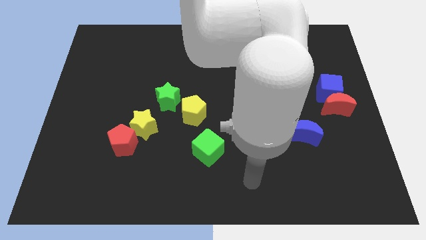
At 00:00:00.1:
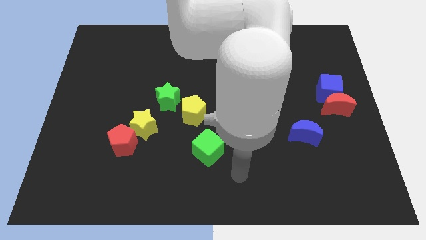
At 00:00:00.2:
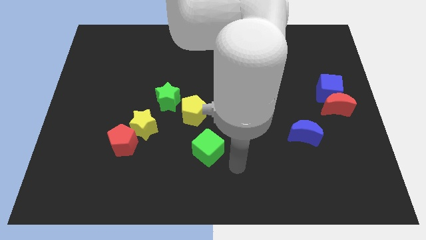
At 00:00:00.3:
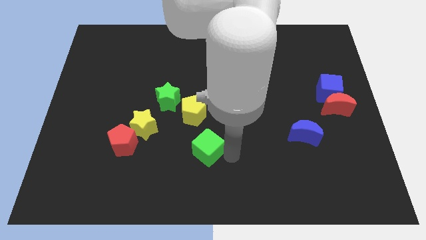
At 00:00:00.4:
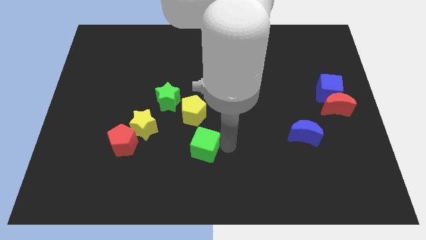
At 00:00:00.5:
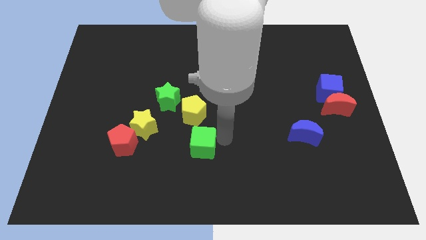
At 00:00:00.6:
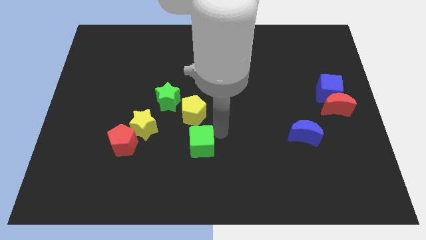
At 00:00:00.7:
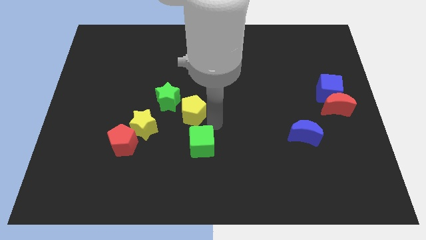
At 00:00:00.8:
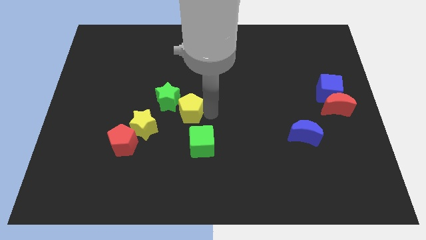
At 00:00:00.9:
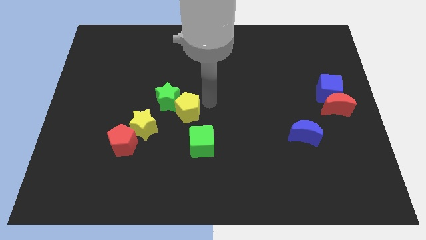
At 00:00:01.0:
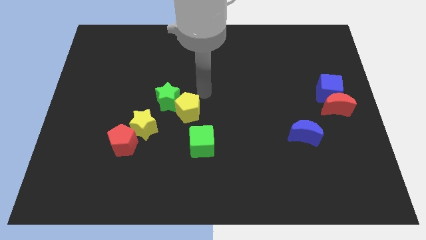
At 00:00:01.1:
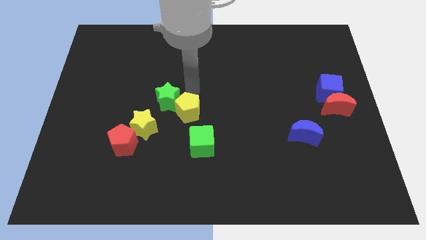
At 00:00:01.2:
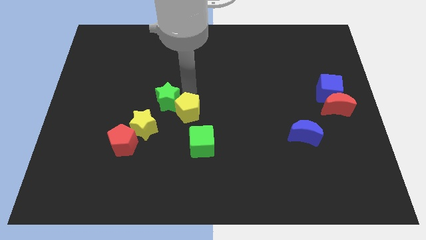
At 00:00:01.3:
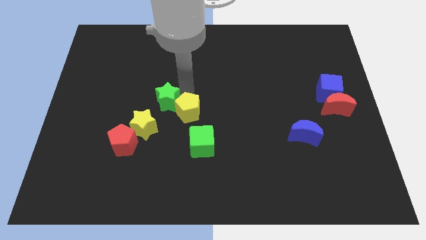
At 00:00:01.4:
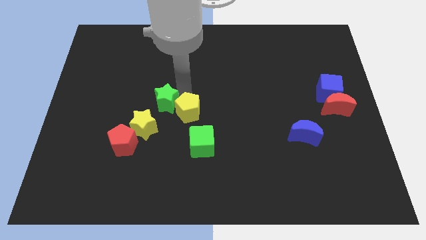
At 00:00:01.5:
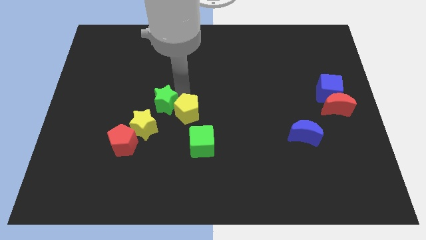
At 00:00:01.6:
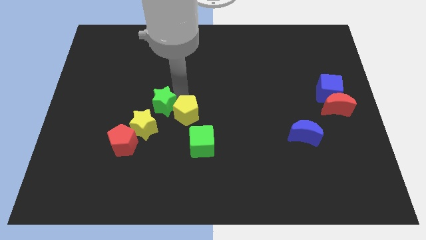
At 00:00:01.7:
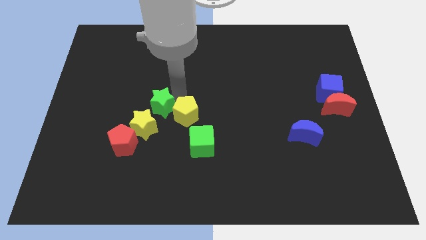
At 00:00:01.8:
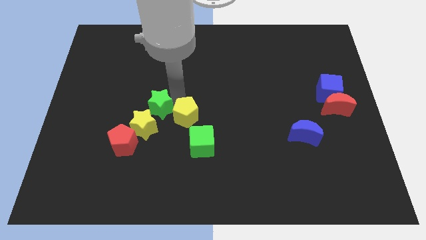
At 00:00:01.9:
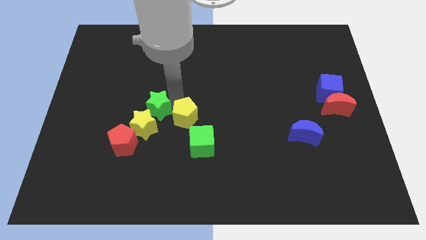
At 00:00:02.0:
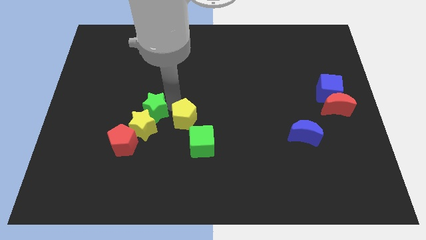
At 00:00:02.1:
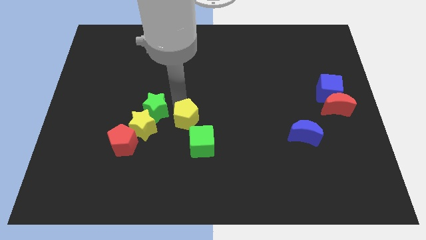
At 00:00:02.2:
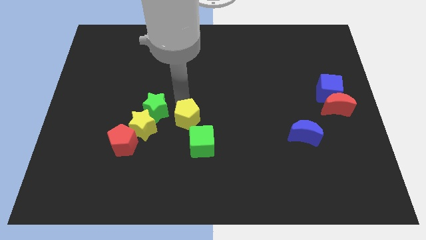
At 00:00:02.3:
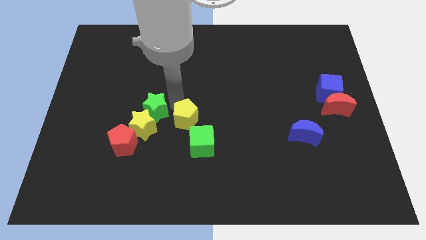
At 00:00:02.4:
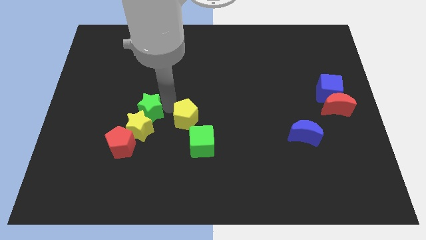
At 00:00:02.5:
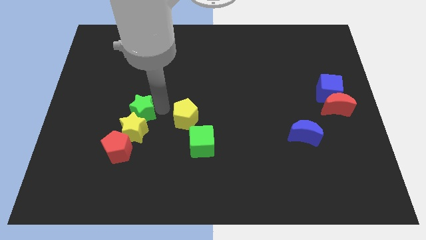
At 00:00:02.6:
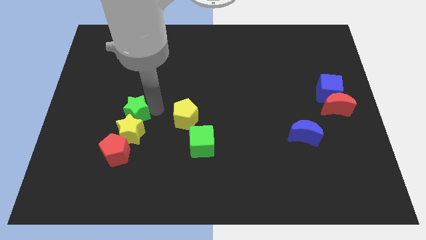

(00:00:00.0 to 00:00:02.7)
push the green star a little diagonally downwards and to the left

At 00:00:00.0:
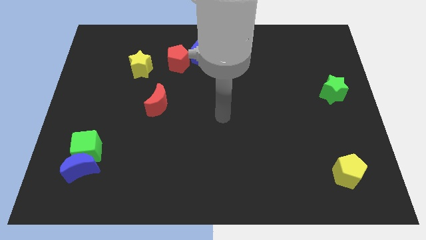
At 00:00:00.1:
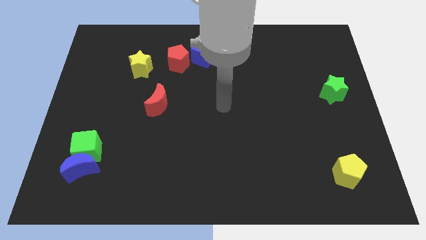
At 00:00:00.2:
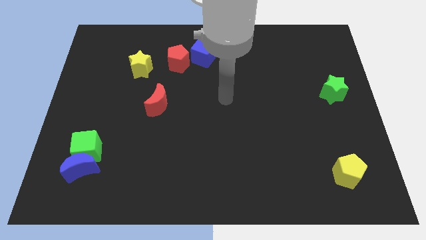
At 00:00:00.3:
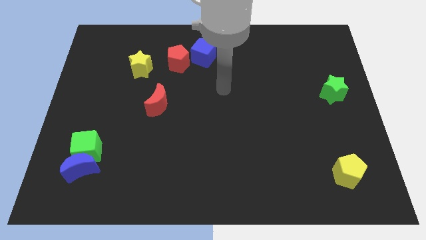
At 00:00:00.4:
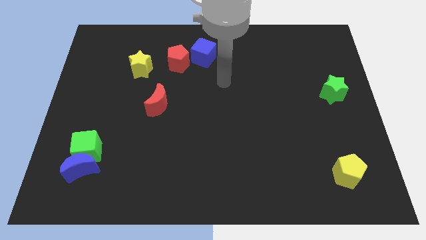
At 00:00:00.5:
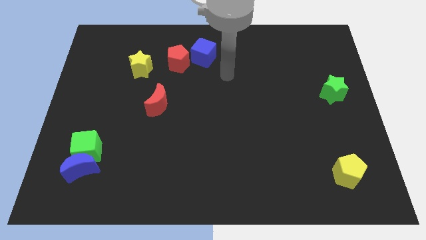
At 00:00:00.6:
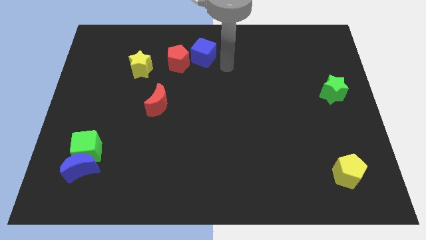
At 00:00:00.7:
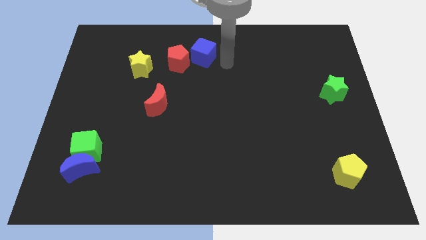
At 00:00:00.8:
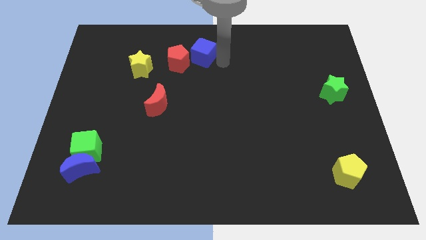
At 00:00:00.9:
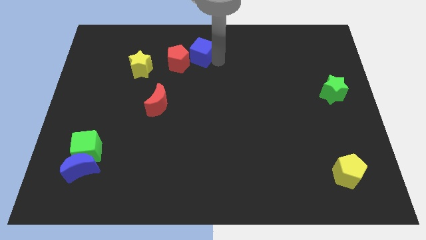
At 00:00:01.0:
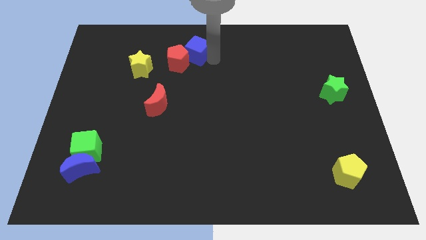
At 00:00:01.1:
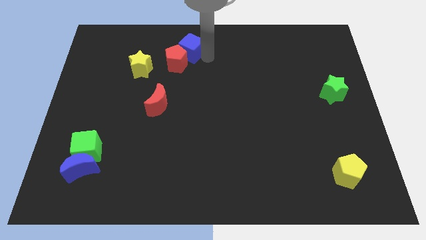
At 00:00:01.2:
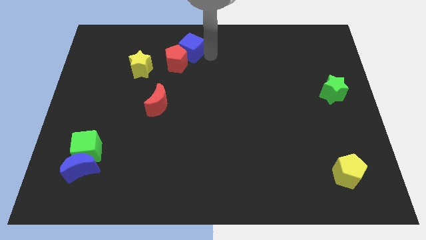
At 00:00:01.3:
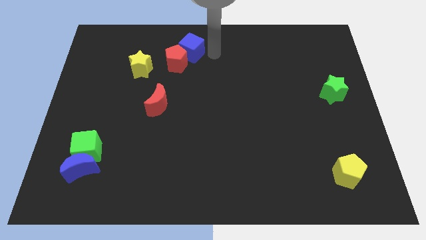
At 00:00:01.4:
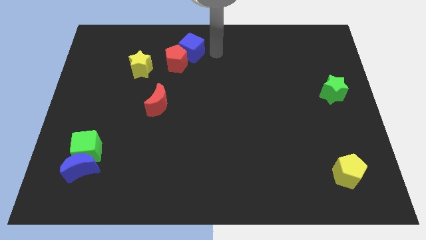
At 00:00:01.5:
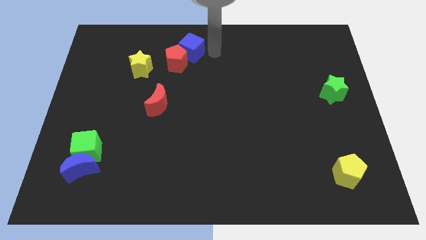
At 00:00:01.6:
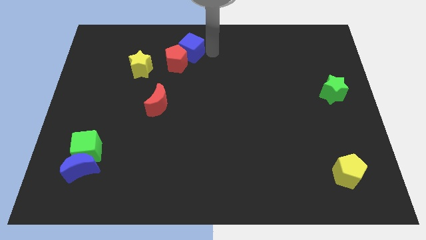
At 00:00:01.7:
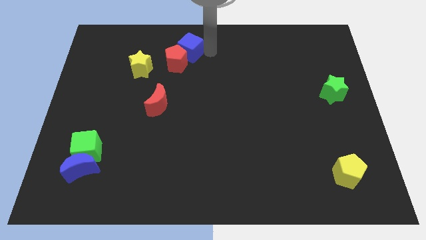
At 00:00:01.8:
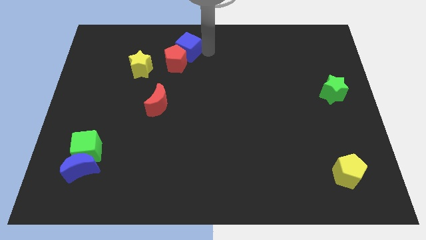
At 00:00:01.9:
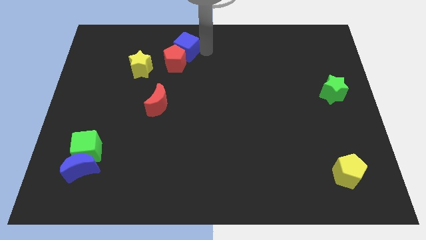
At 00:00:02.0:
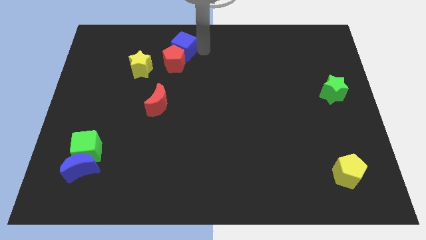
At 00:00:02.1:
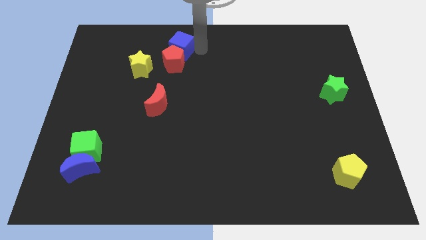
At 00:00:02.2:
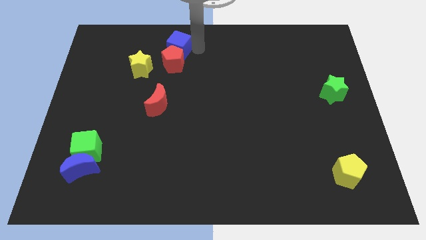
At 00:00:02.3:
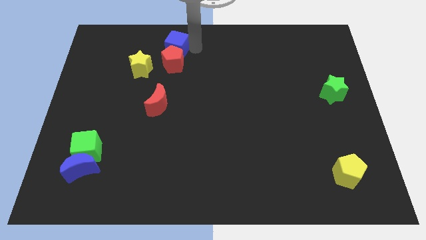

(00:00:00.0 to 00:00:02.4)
push the blue cube left somewhat

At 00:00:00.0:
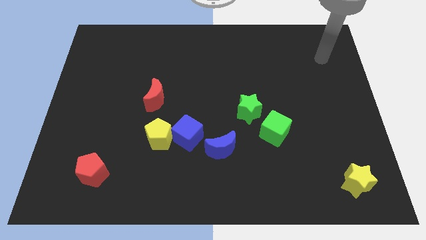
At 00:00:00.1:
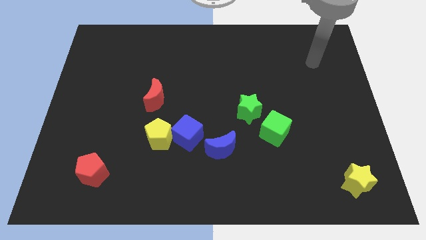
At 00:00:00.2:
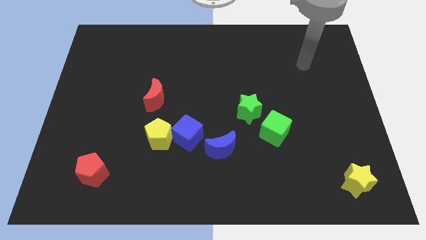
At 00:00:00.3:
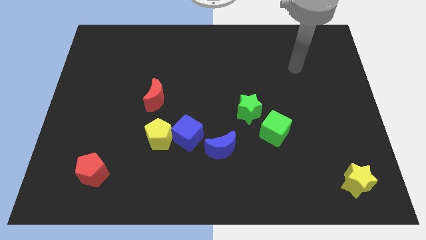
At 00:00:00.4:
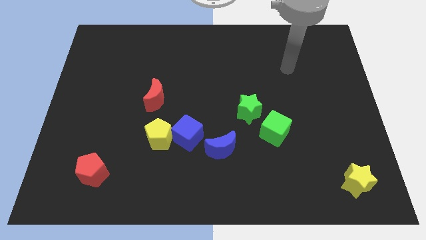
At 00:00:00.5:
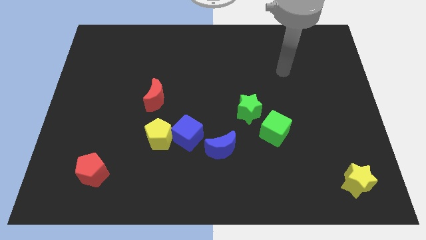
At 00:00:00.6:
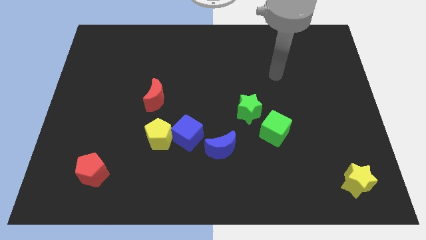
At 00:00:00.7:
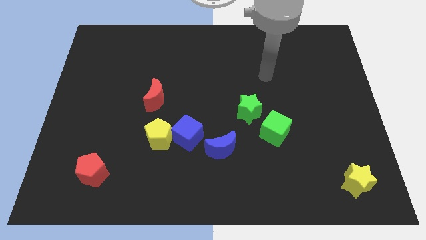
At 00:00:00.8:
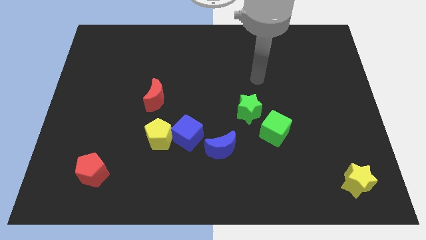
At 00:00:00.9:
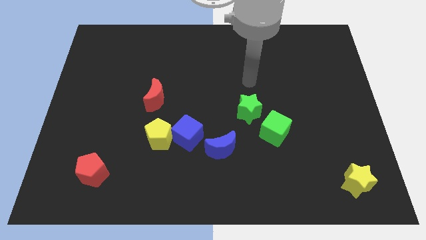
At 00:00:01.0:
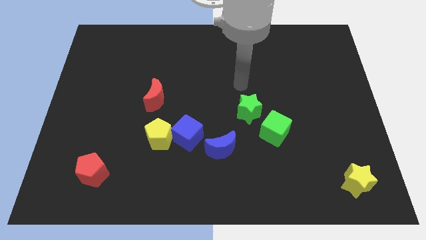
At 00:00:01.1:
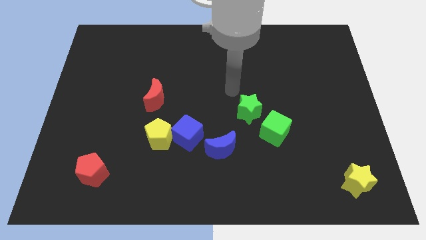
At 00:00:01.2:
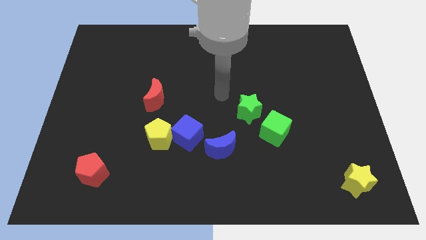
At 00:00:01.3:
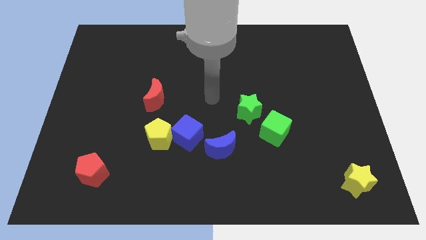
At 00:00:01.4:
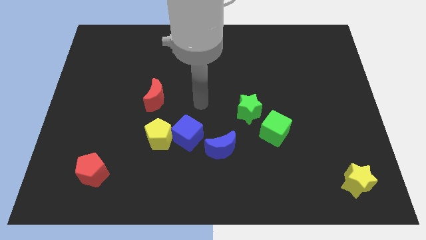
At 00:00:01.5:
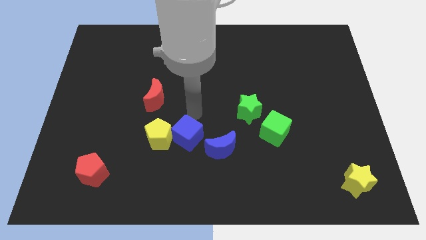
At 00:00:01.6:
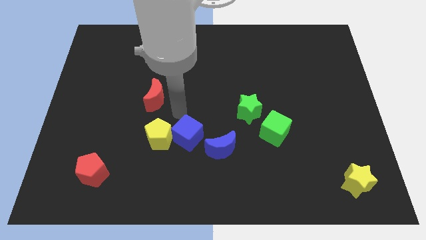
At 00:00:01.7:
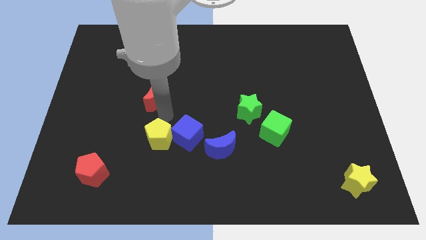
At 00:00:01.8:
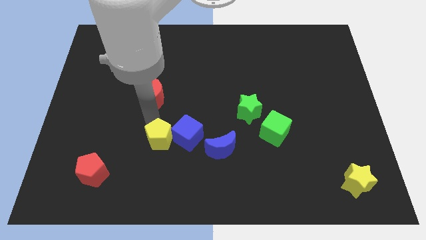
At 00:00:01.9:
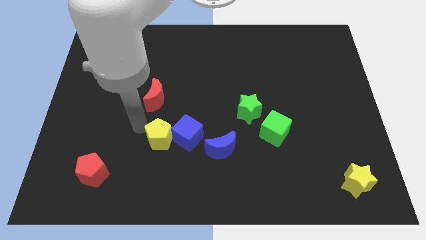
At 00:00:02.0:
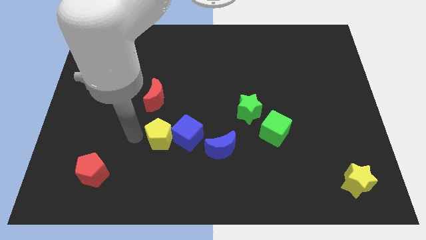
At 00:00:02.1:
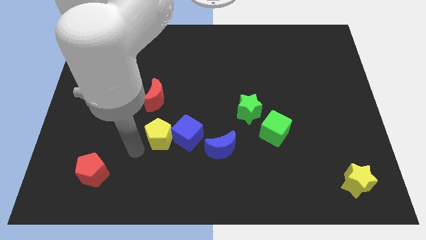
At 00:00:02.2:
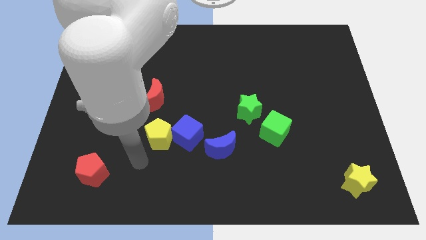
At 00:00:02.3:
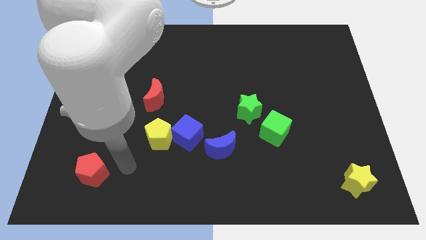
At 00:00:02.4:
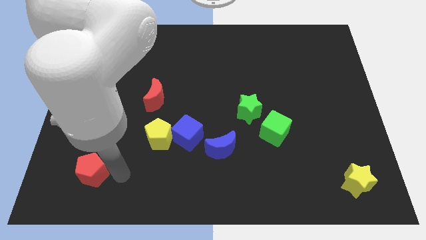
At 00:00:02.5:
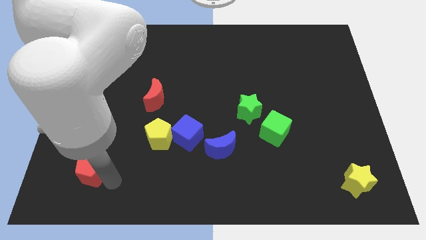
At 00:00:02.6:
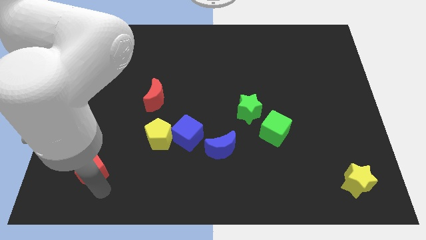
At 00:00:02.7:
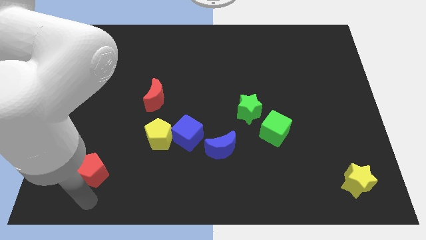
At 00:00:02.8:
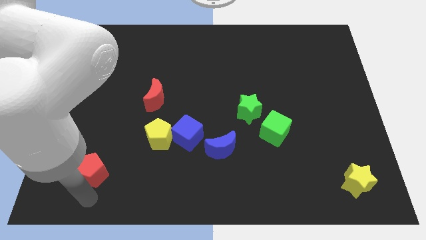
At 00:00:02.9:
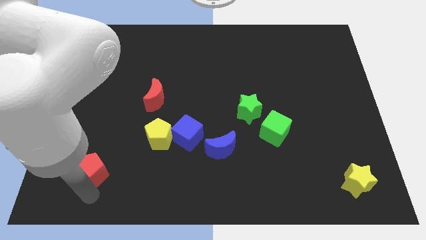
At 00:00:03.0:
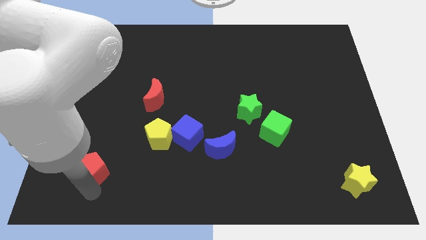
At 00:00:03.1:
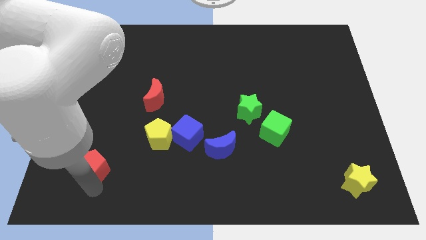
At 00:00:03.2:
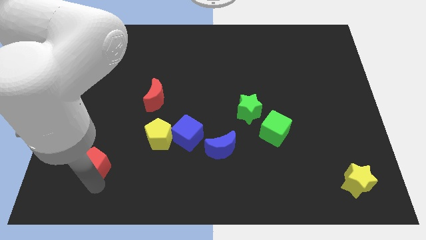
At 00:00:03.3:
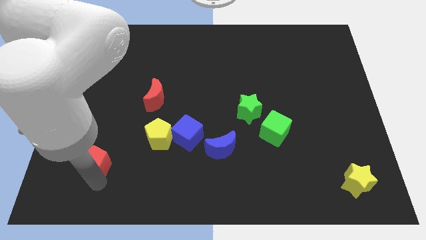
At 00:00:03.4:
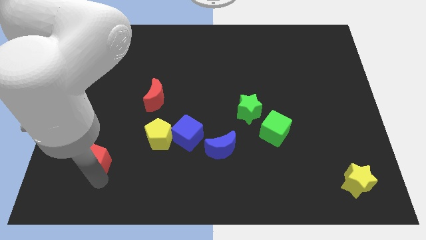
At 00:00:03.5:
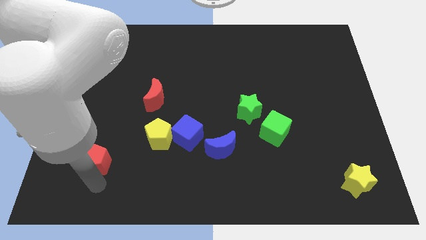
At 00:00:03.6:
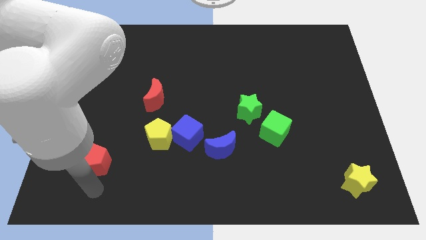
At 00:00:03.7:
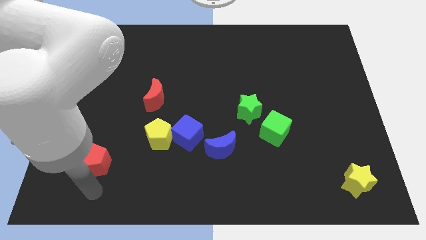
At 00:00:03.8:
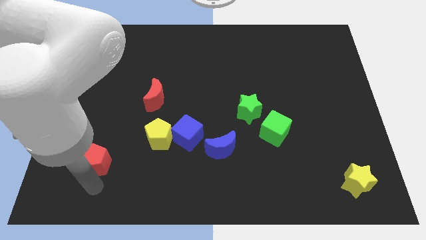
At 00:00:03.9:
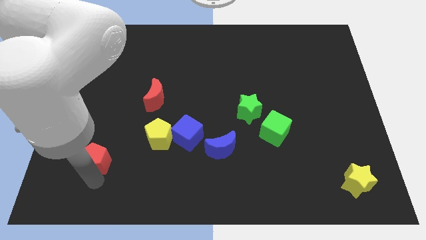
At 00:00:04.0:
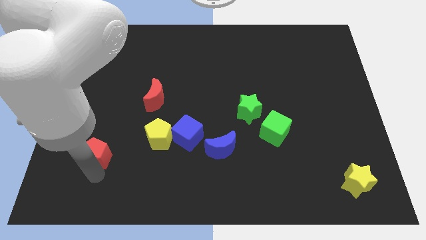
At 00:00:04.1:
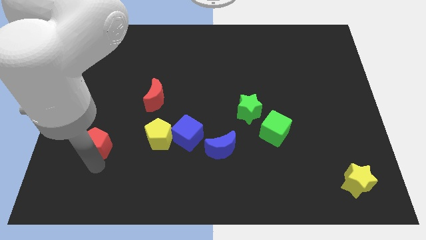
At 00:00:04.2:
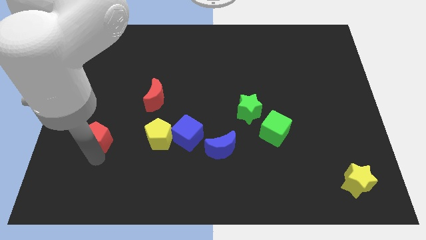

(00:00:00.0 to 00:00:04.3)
slightly move the red pentagon upwards
